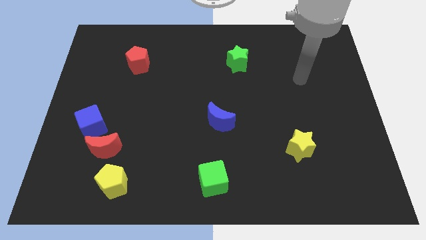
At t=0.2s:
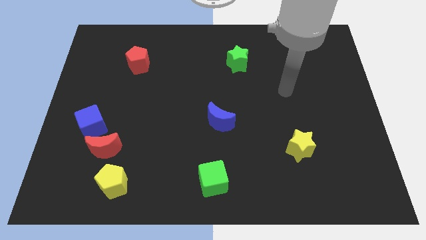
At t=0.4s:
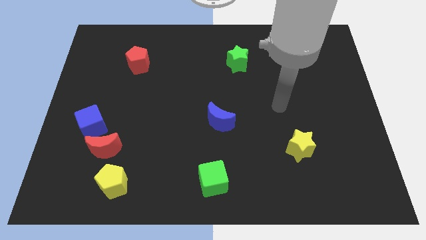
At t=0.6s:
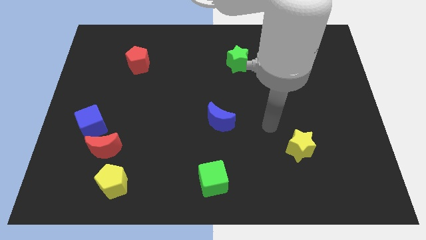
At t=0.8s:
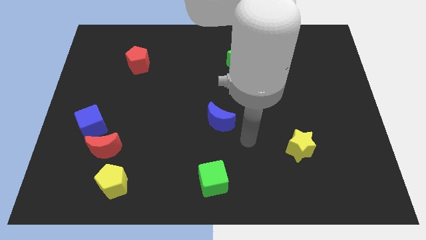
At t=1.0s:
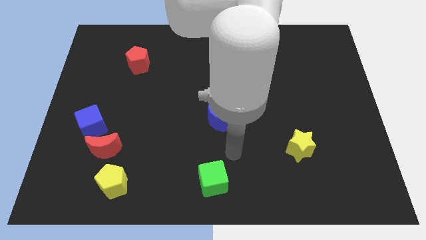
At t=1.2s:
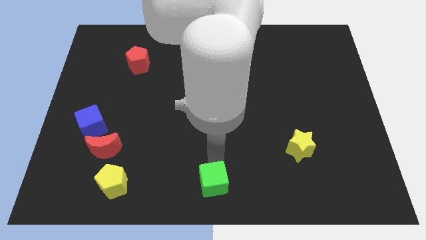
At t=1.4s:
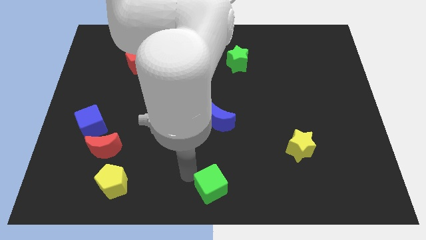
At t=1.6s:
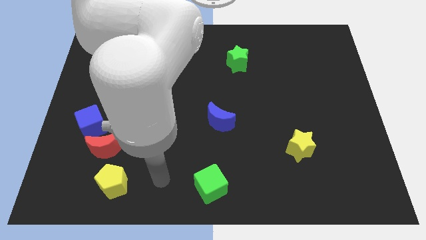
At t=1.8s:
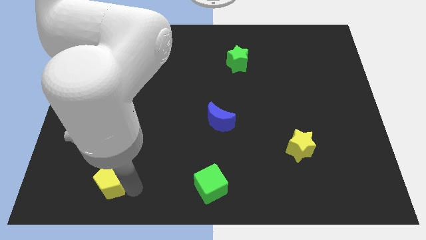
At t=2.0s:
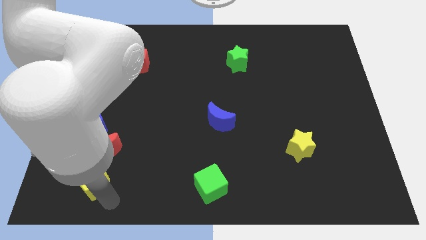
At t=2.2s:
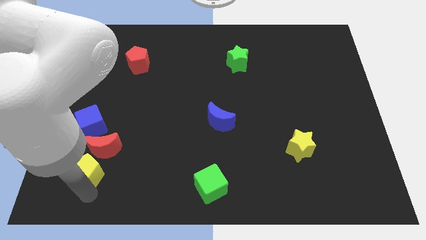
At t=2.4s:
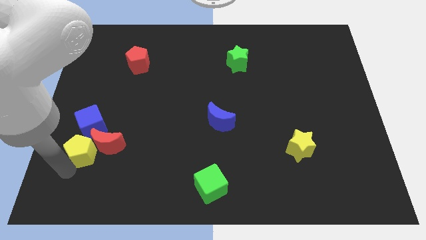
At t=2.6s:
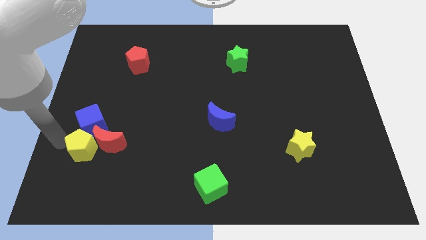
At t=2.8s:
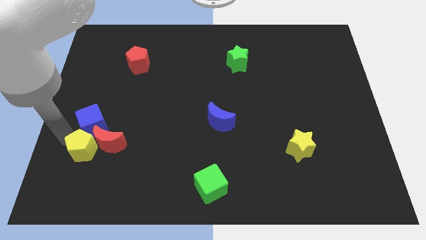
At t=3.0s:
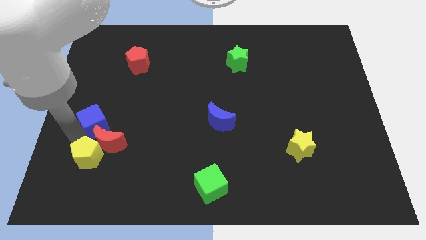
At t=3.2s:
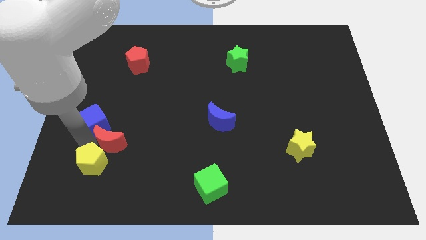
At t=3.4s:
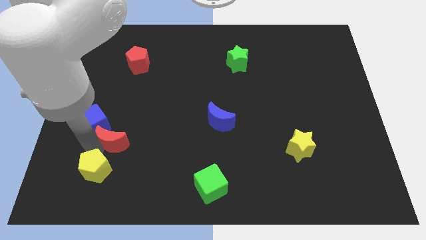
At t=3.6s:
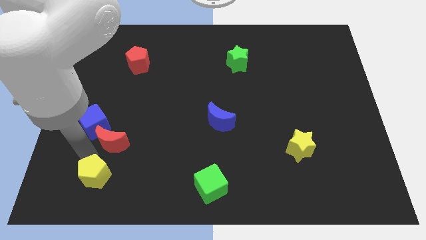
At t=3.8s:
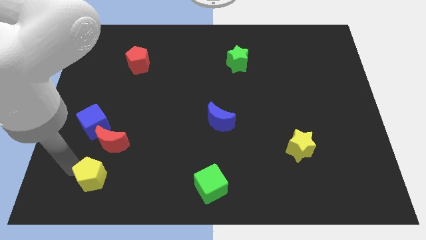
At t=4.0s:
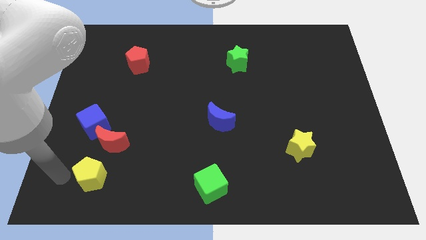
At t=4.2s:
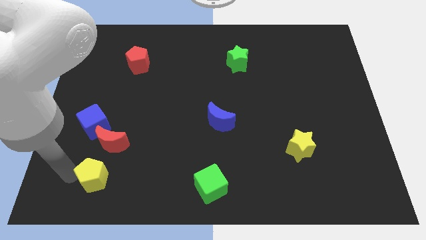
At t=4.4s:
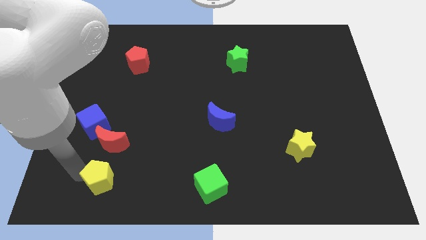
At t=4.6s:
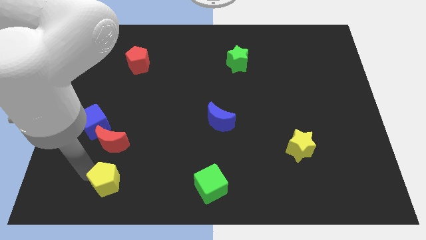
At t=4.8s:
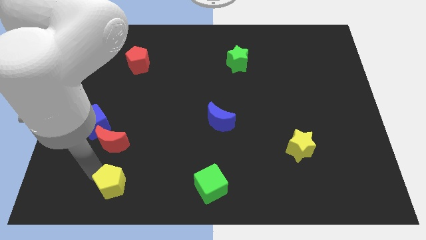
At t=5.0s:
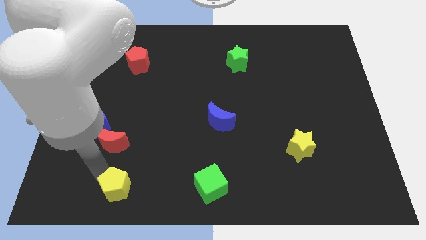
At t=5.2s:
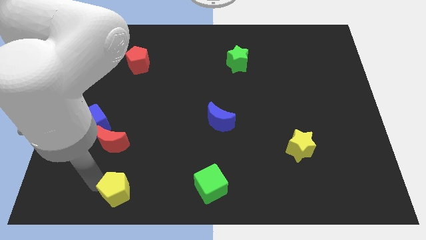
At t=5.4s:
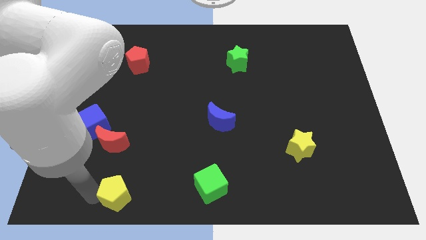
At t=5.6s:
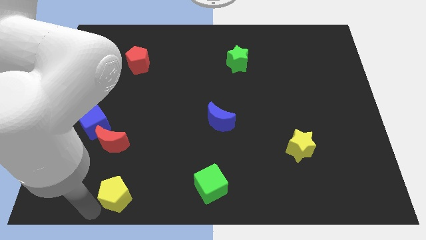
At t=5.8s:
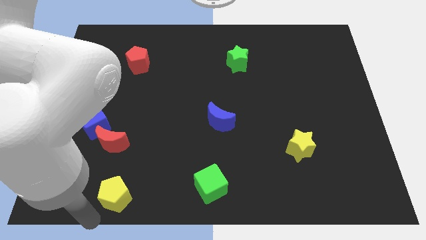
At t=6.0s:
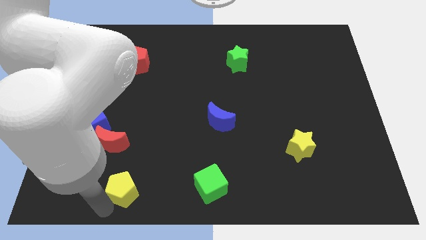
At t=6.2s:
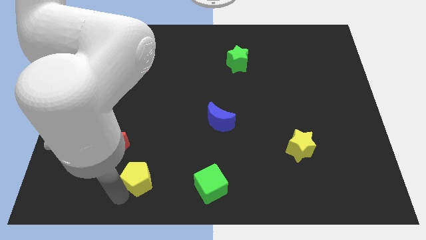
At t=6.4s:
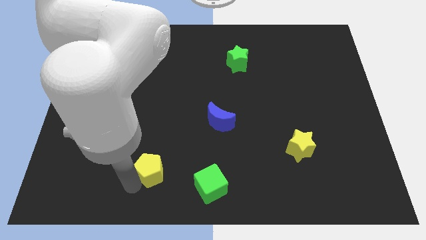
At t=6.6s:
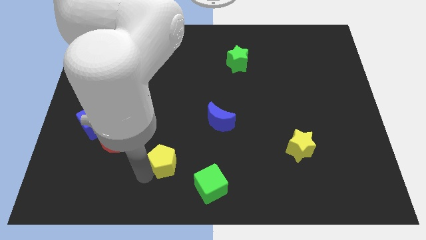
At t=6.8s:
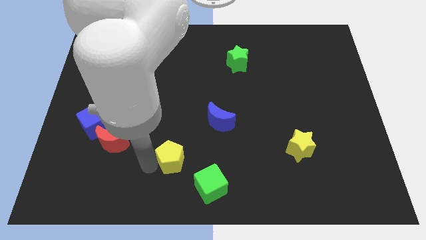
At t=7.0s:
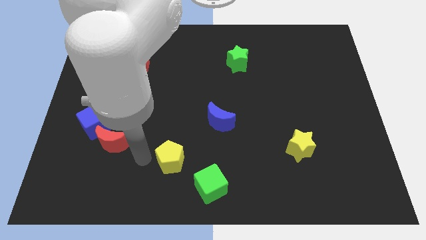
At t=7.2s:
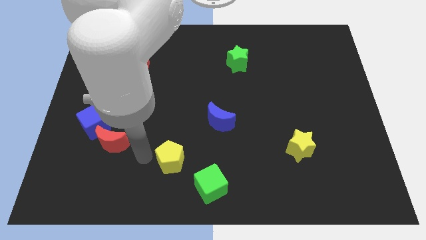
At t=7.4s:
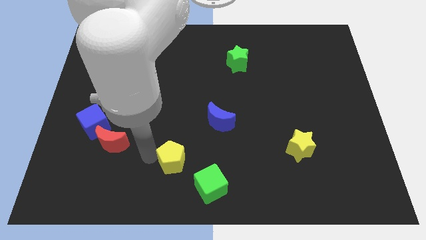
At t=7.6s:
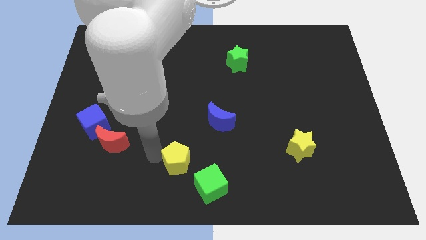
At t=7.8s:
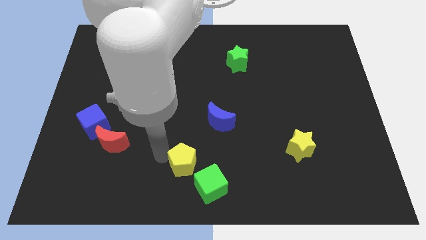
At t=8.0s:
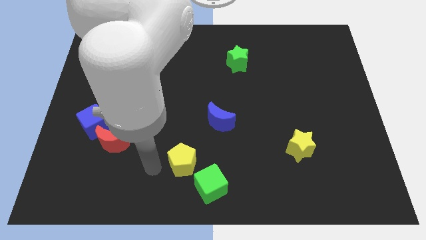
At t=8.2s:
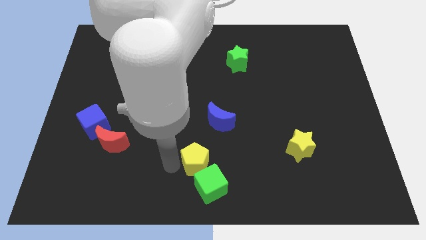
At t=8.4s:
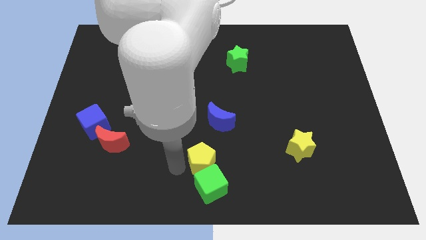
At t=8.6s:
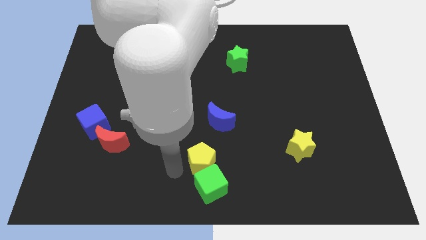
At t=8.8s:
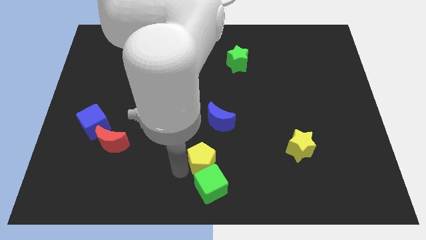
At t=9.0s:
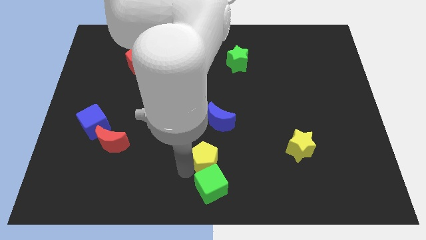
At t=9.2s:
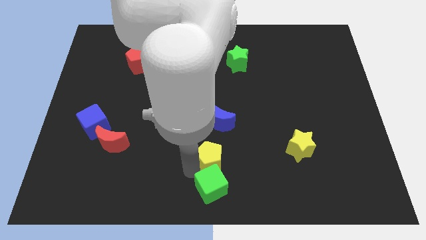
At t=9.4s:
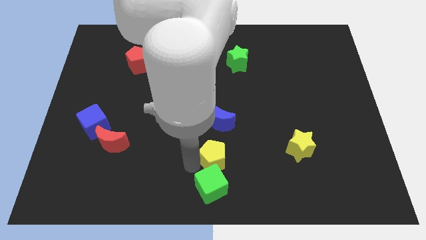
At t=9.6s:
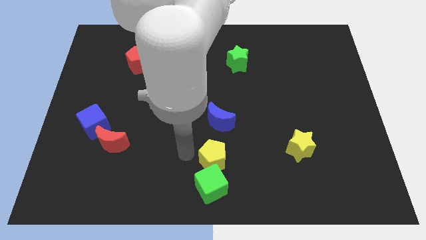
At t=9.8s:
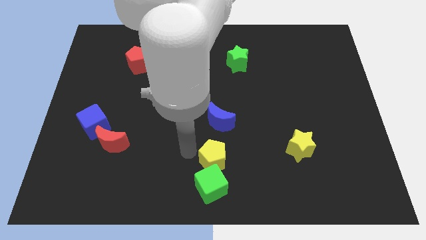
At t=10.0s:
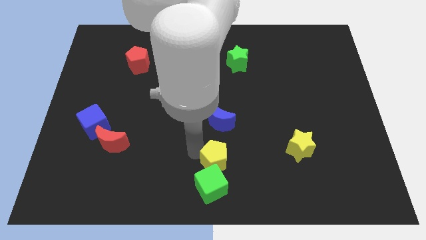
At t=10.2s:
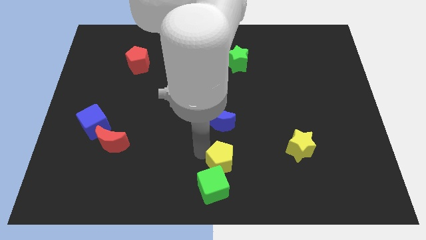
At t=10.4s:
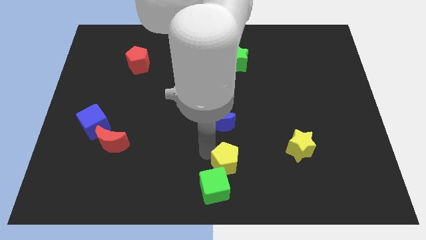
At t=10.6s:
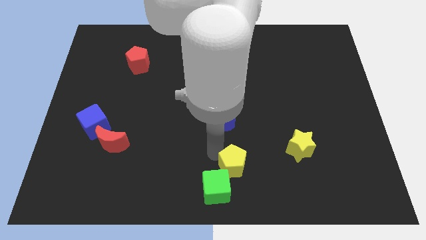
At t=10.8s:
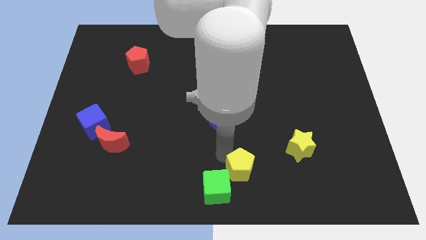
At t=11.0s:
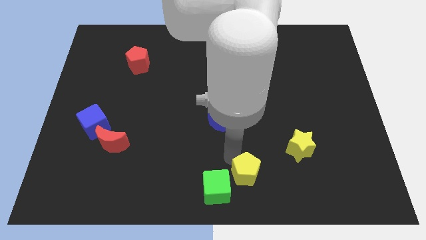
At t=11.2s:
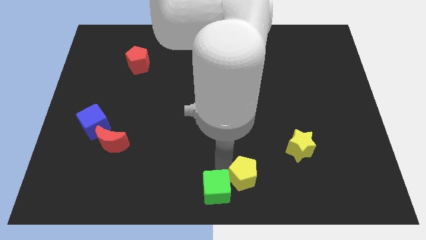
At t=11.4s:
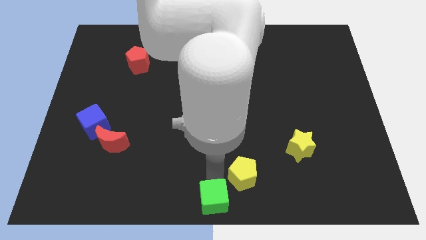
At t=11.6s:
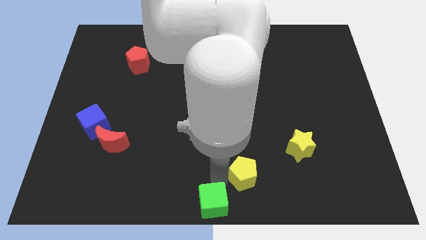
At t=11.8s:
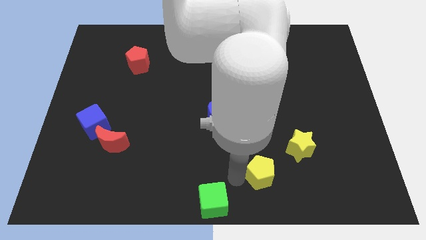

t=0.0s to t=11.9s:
push the yellow pentagon diagonally down and to the left of the yellow star

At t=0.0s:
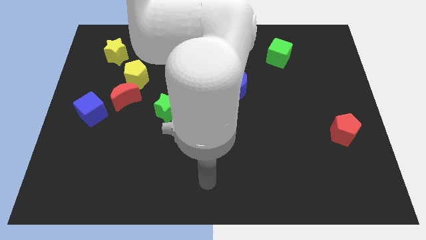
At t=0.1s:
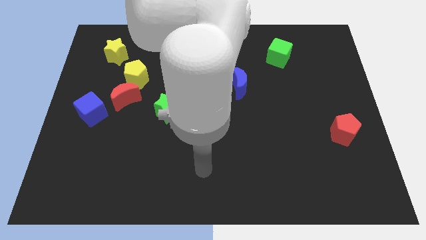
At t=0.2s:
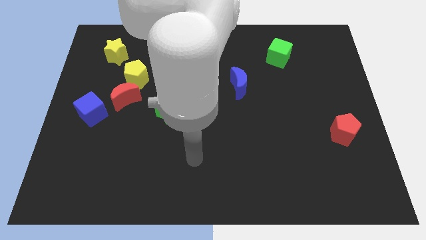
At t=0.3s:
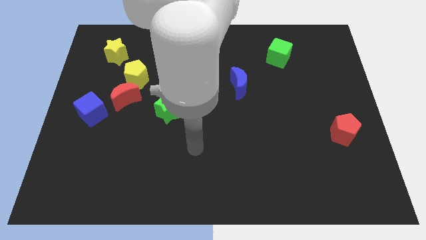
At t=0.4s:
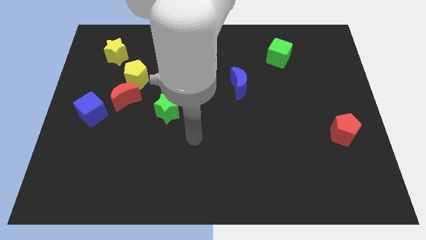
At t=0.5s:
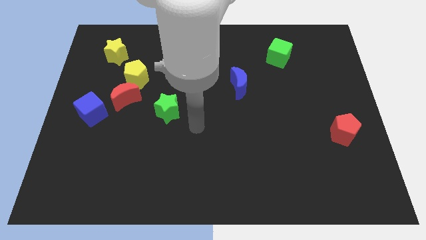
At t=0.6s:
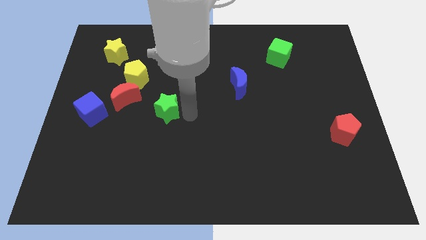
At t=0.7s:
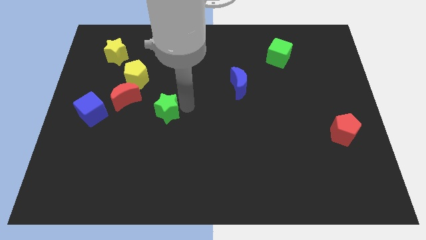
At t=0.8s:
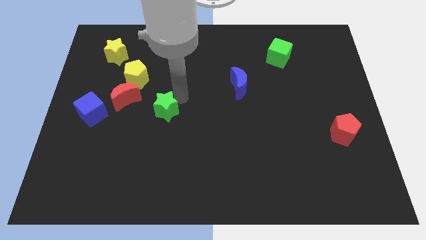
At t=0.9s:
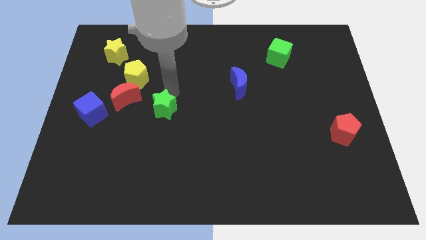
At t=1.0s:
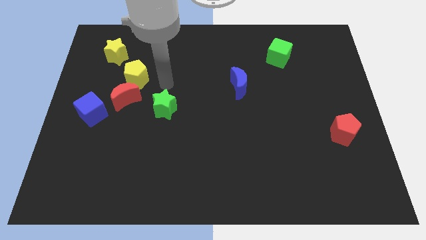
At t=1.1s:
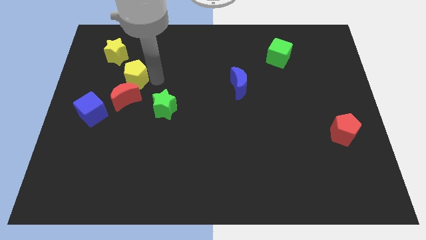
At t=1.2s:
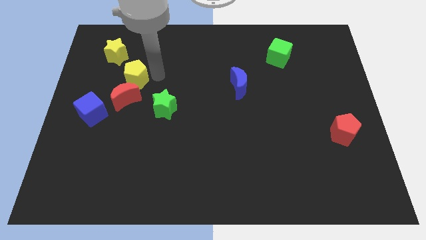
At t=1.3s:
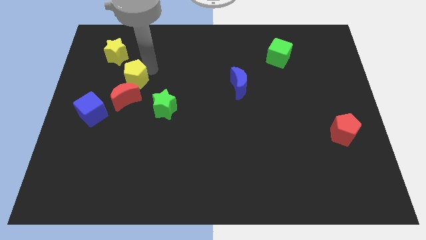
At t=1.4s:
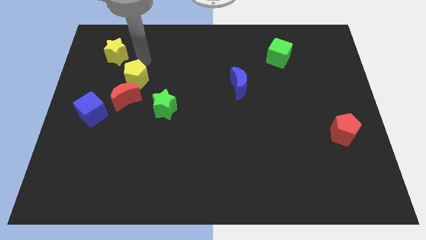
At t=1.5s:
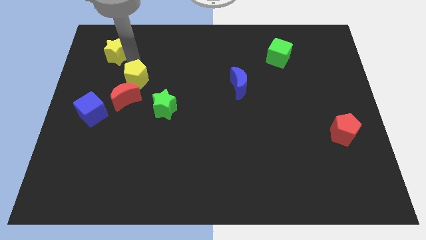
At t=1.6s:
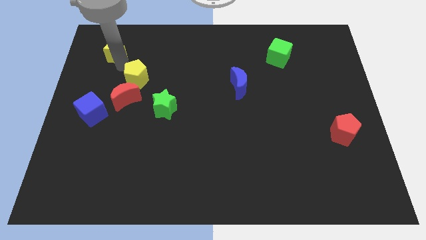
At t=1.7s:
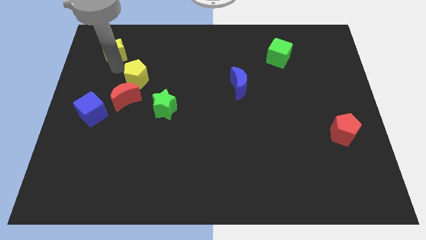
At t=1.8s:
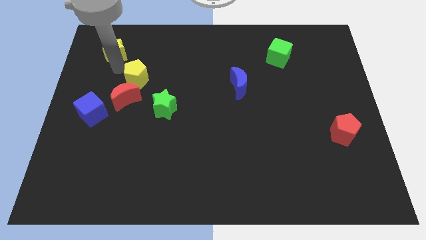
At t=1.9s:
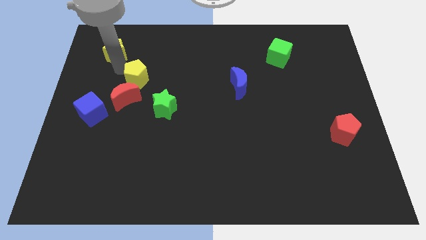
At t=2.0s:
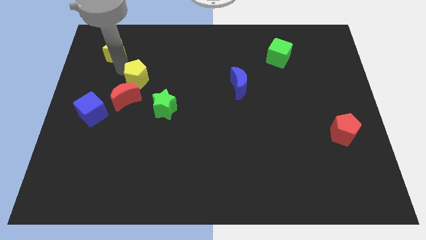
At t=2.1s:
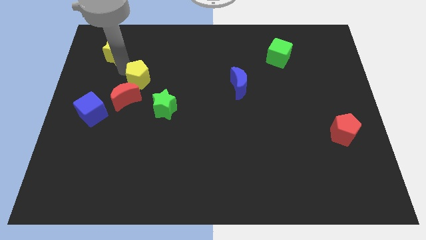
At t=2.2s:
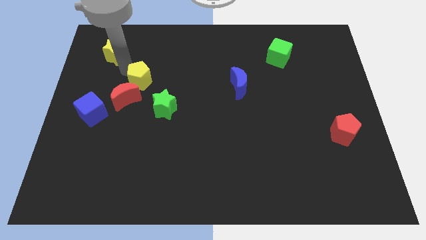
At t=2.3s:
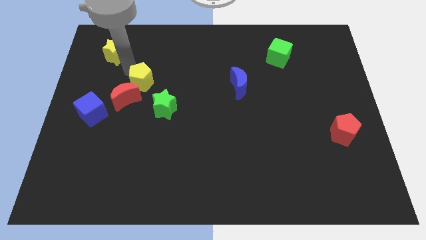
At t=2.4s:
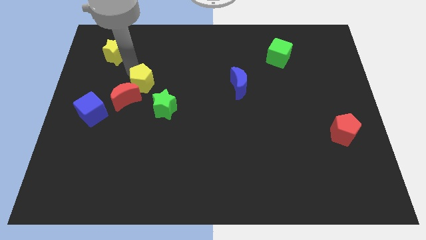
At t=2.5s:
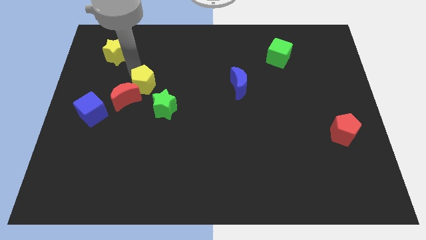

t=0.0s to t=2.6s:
push the yellow pentagon right of the red moon
